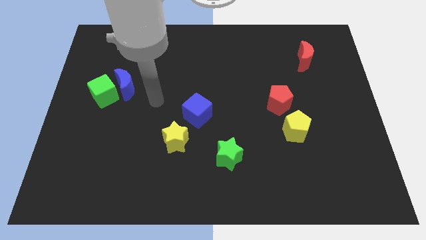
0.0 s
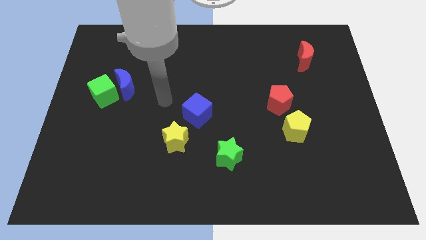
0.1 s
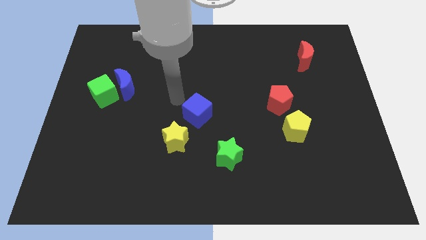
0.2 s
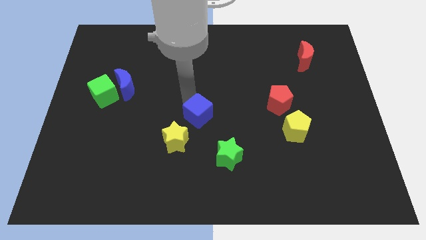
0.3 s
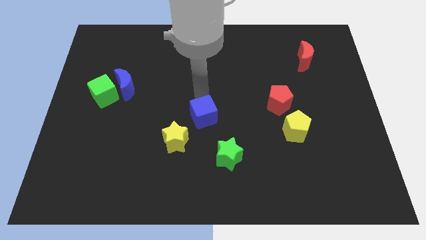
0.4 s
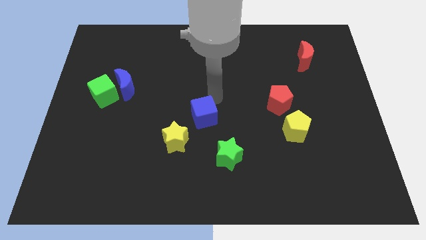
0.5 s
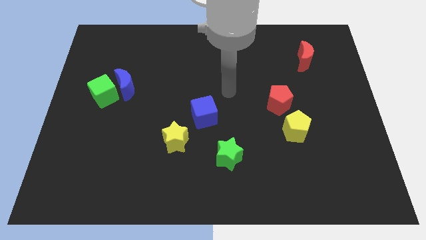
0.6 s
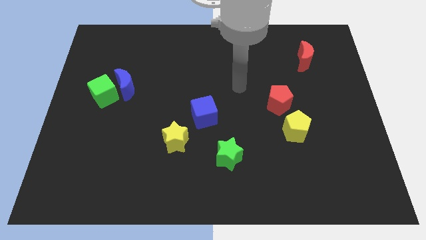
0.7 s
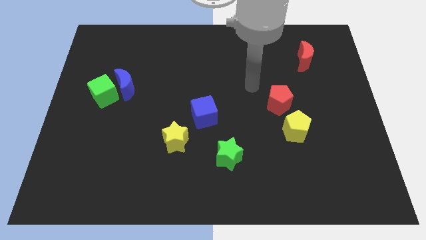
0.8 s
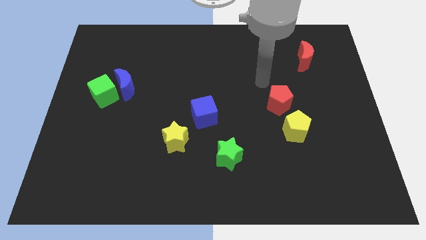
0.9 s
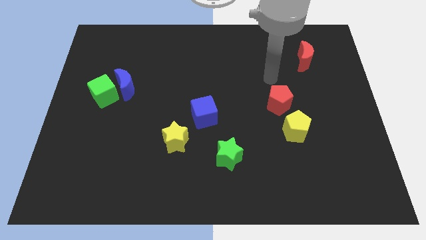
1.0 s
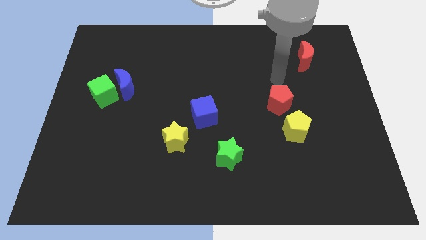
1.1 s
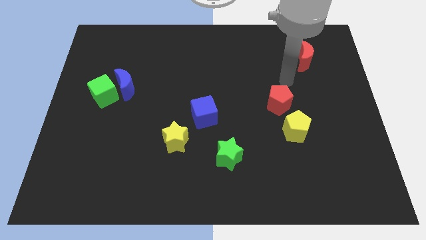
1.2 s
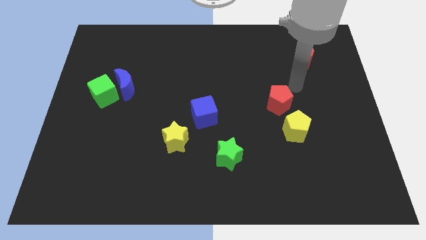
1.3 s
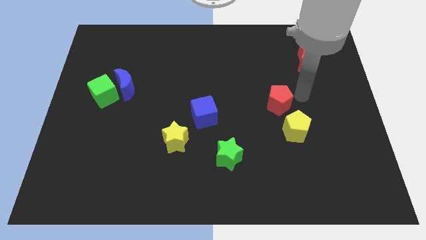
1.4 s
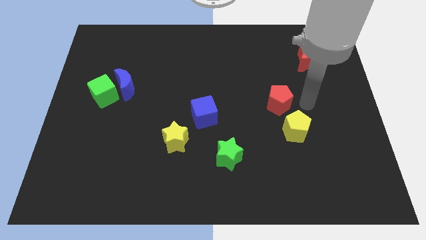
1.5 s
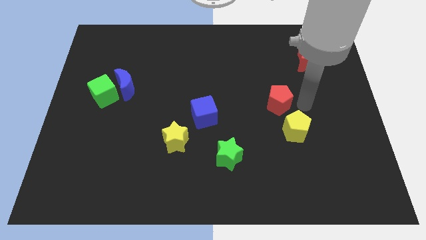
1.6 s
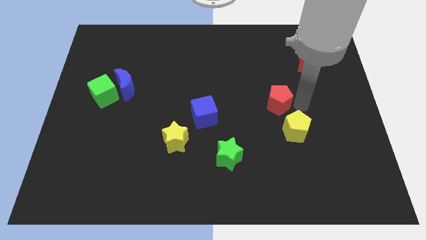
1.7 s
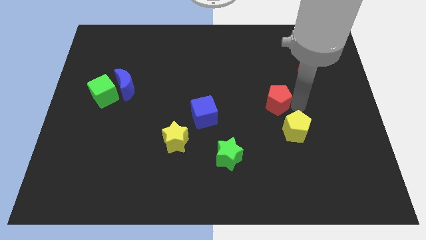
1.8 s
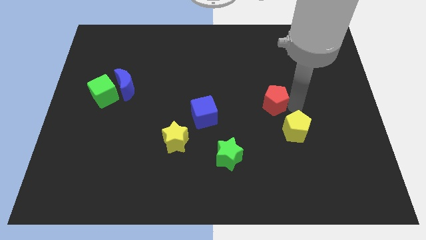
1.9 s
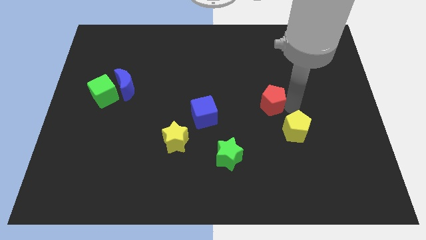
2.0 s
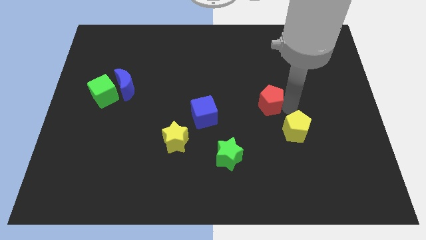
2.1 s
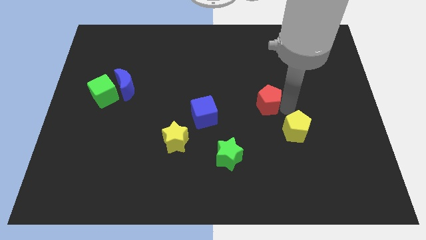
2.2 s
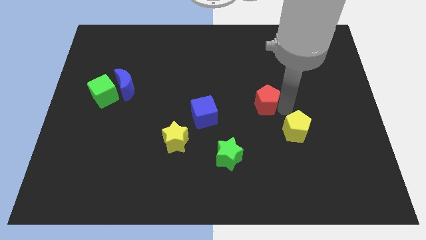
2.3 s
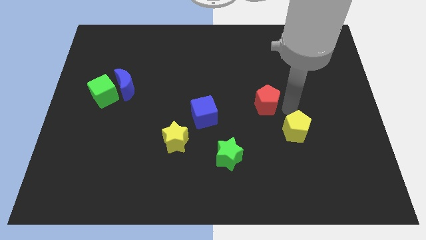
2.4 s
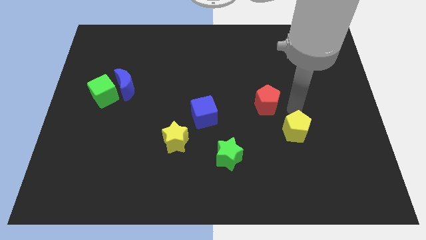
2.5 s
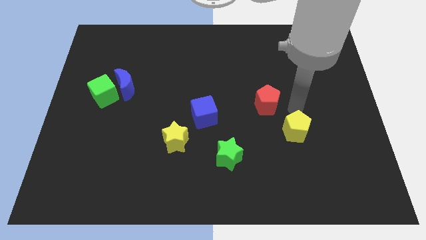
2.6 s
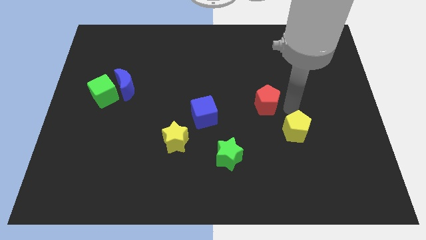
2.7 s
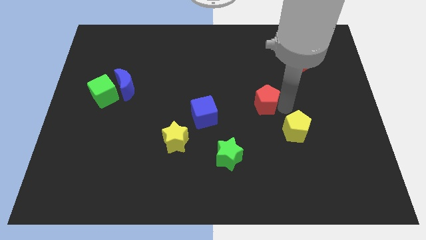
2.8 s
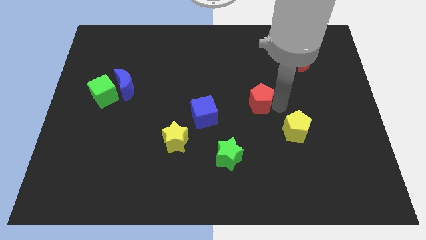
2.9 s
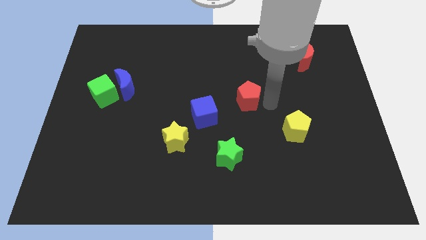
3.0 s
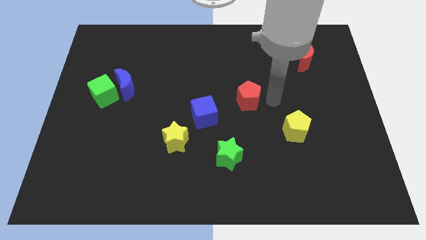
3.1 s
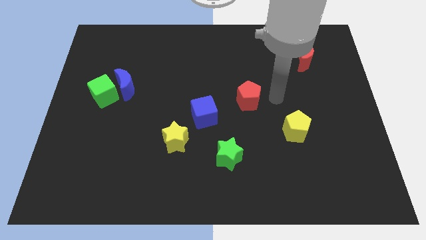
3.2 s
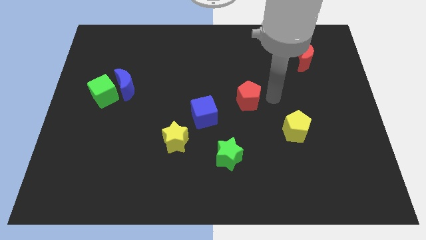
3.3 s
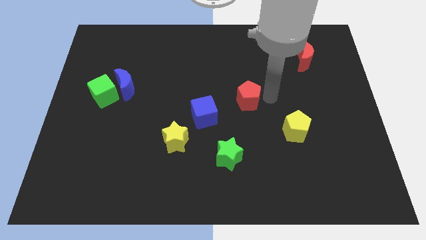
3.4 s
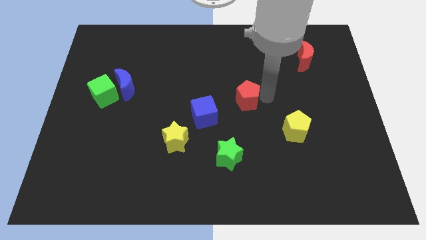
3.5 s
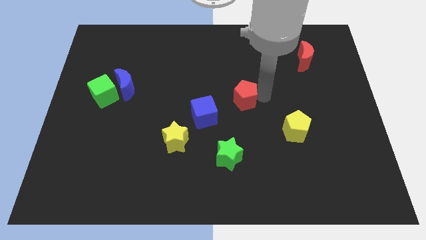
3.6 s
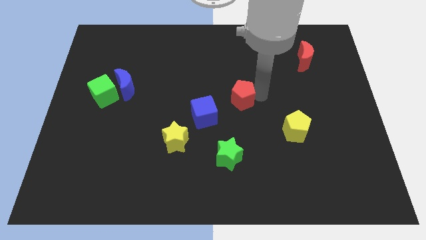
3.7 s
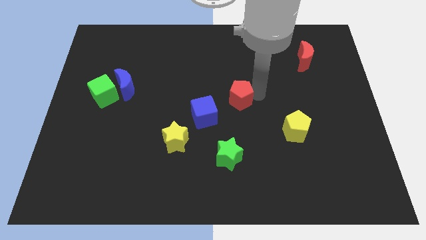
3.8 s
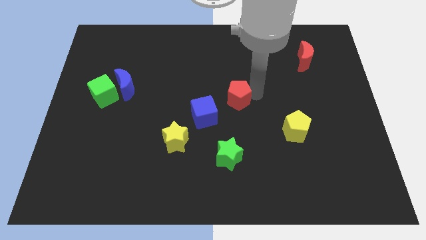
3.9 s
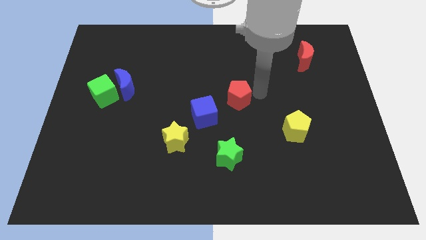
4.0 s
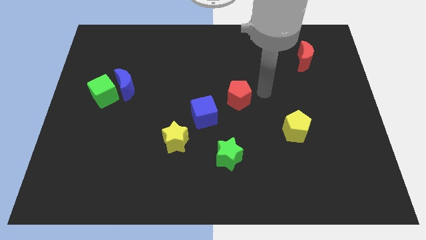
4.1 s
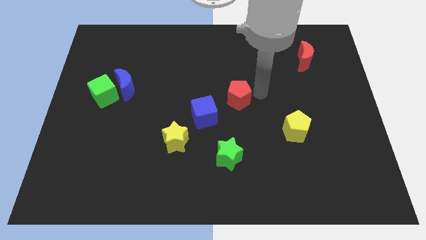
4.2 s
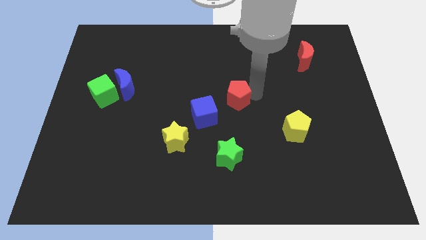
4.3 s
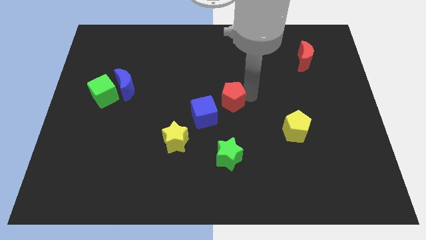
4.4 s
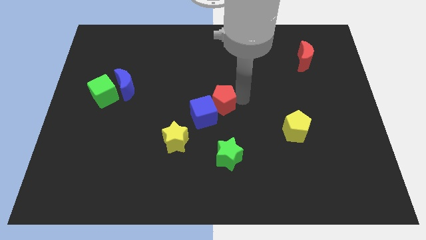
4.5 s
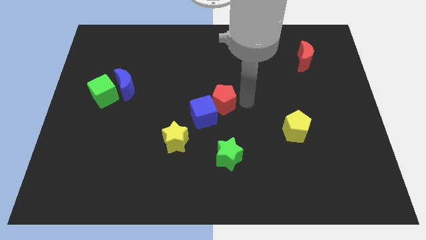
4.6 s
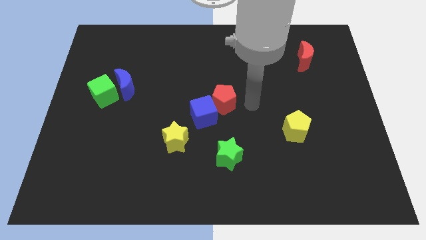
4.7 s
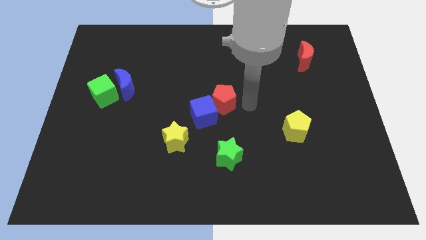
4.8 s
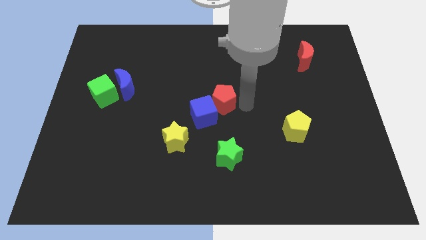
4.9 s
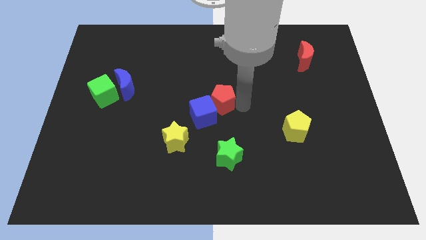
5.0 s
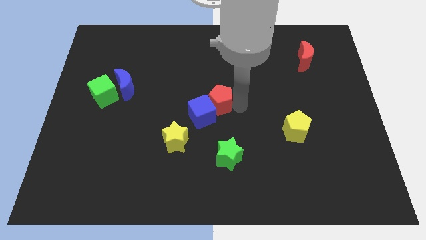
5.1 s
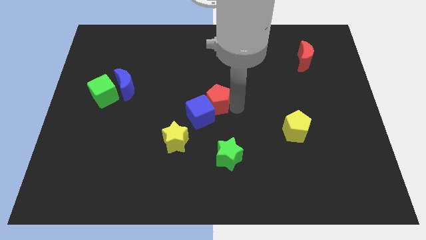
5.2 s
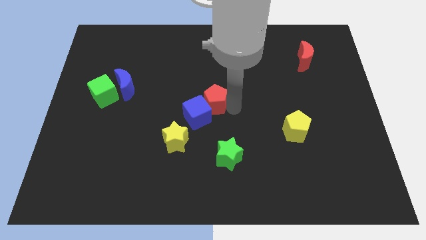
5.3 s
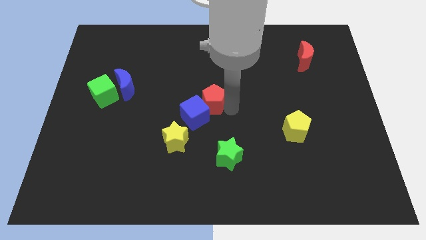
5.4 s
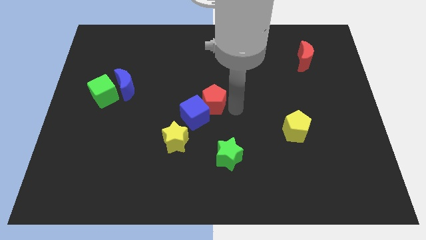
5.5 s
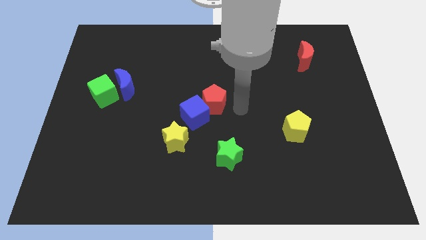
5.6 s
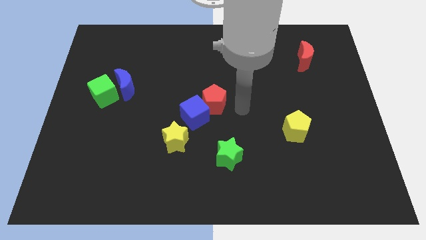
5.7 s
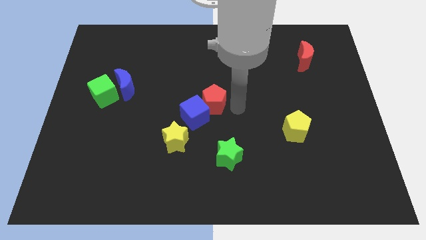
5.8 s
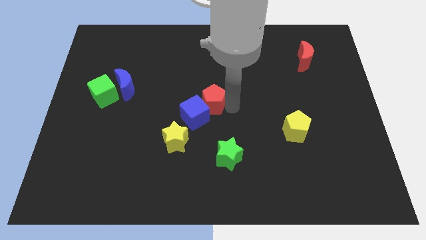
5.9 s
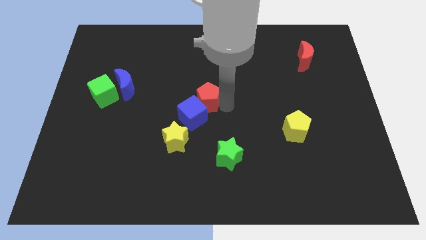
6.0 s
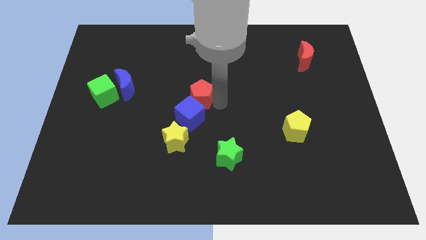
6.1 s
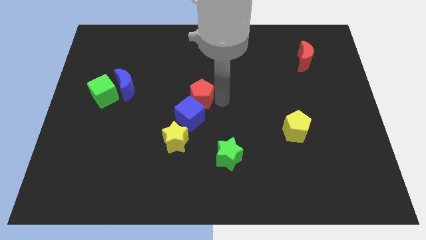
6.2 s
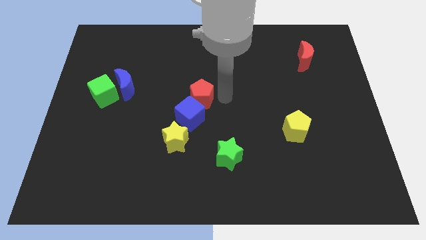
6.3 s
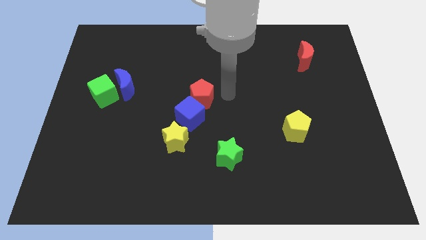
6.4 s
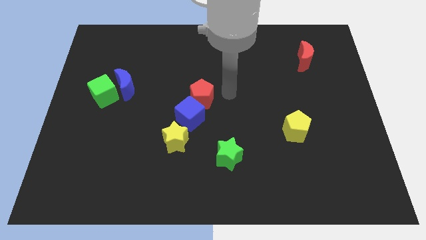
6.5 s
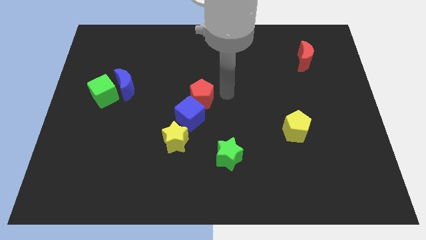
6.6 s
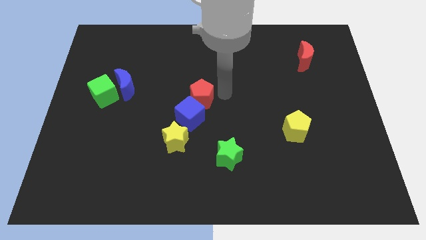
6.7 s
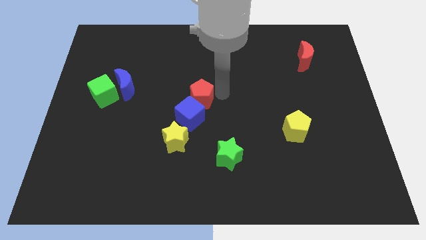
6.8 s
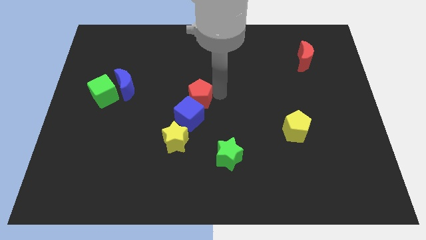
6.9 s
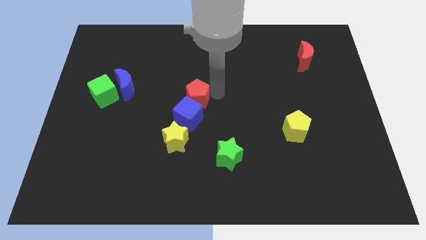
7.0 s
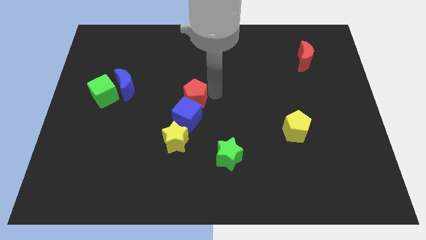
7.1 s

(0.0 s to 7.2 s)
push the red pentagon left

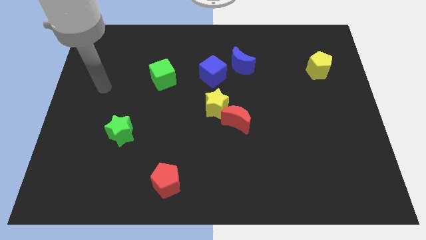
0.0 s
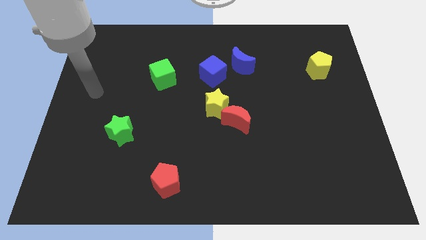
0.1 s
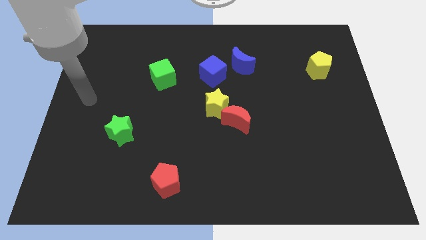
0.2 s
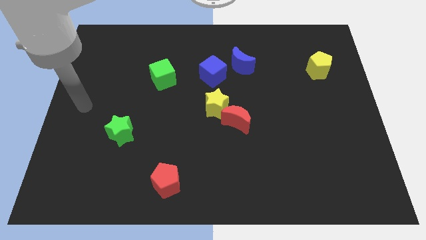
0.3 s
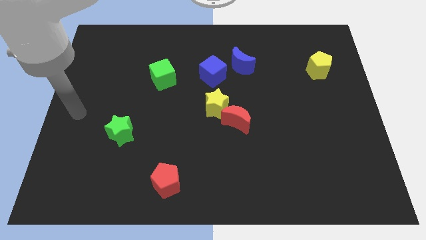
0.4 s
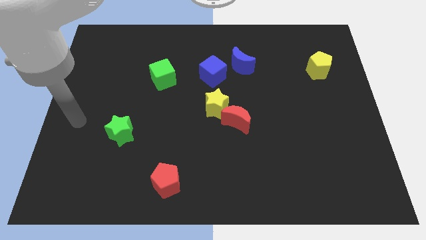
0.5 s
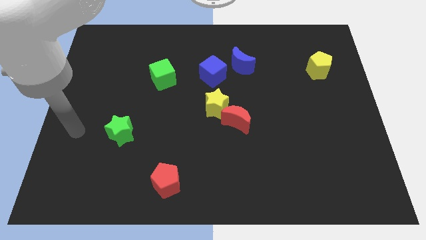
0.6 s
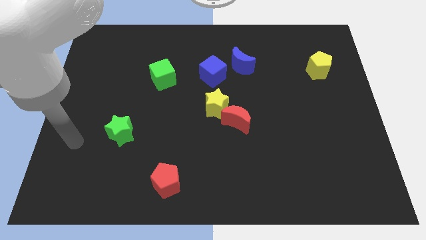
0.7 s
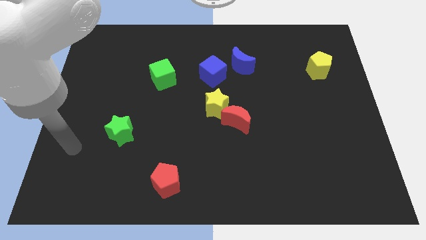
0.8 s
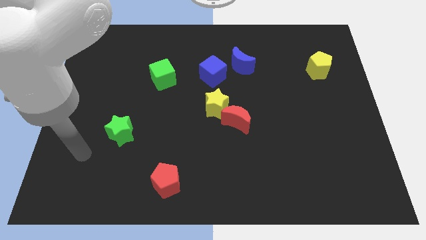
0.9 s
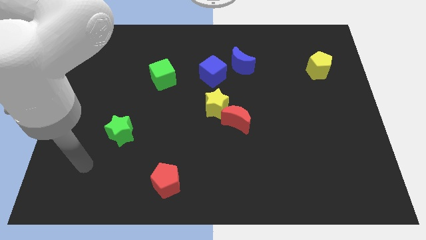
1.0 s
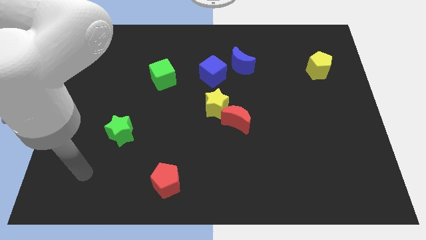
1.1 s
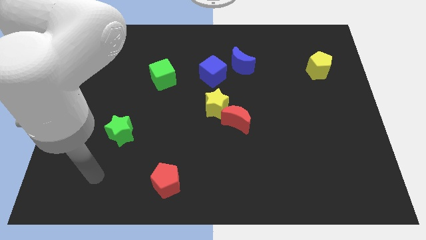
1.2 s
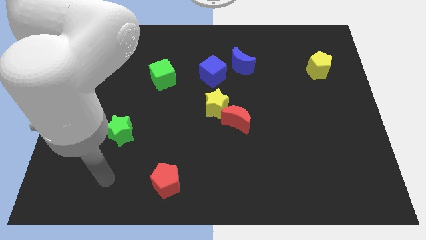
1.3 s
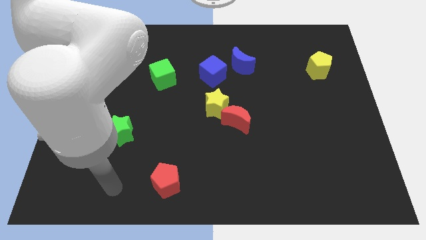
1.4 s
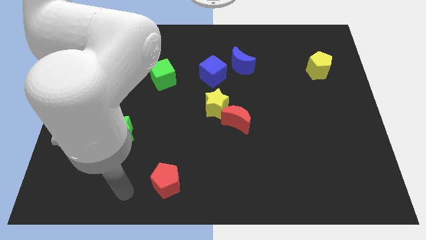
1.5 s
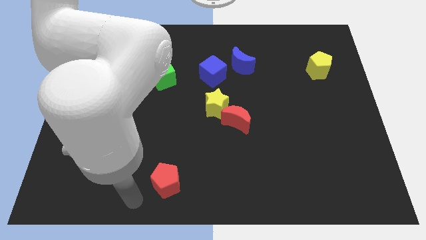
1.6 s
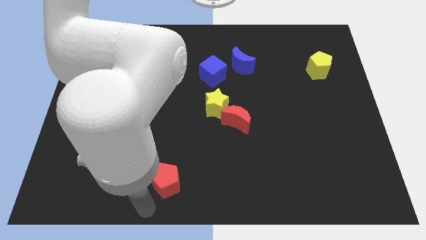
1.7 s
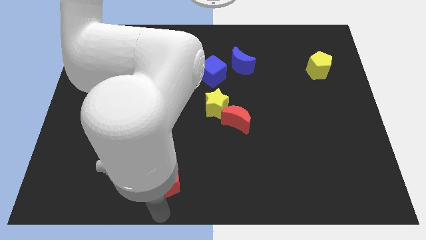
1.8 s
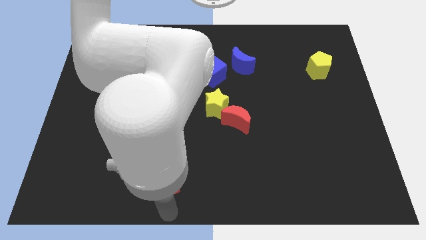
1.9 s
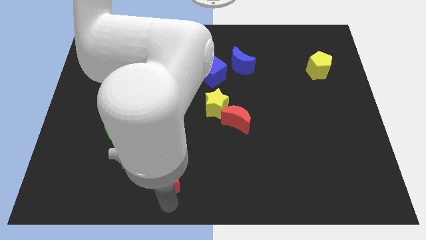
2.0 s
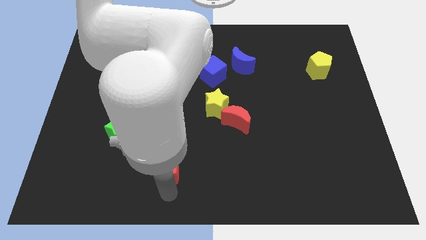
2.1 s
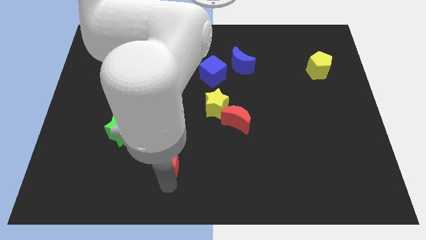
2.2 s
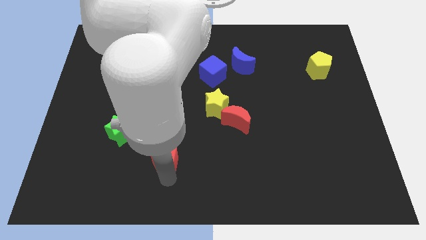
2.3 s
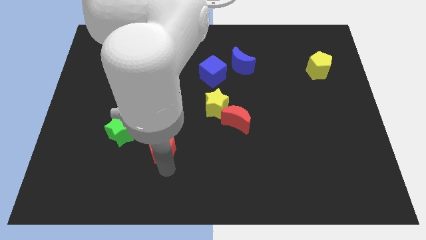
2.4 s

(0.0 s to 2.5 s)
slightly slide the red pentagon upwards
